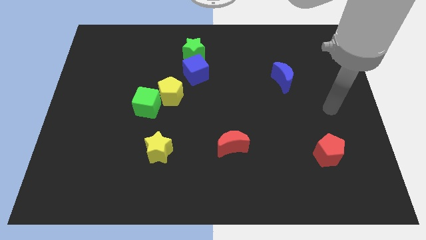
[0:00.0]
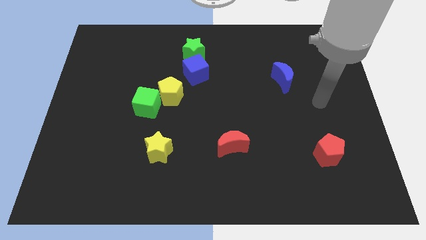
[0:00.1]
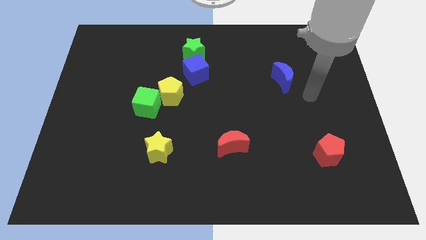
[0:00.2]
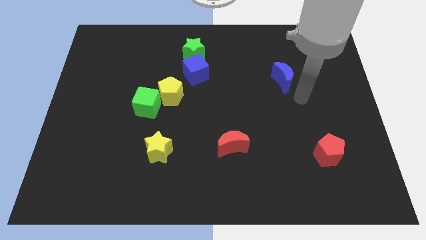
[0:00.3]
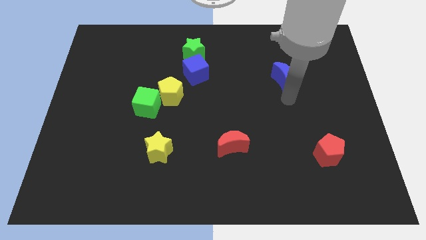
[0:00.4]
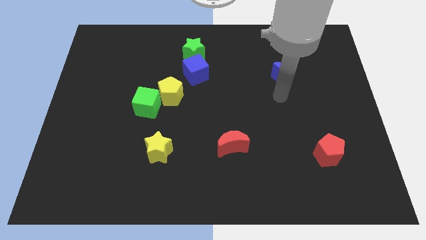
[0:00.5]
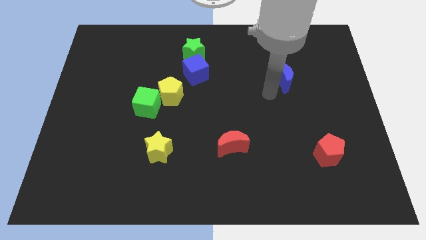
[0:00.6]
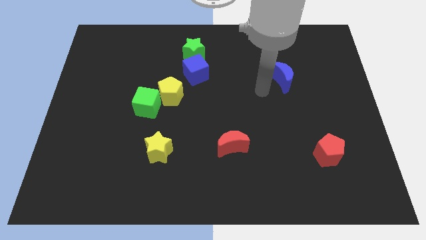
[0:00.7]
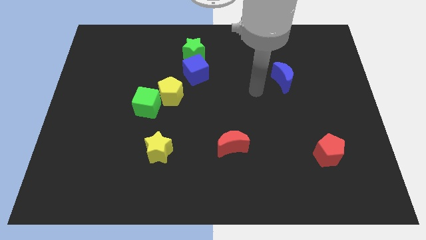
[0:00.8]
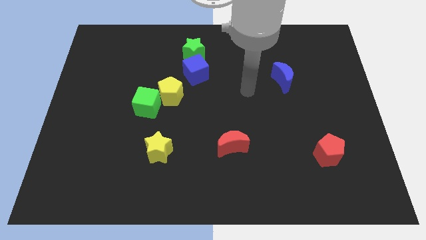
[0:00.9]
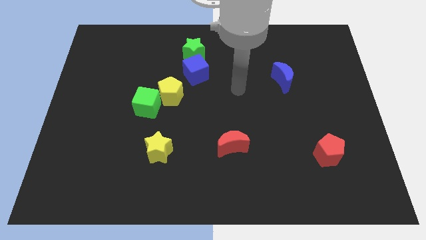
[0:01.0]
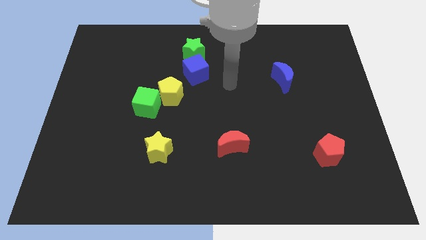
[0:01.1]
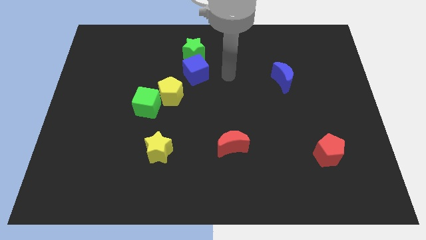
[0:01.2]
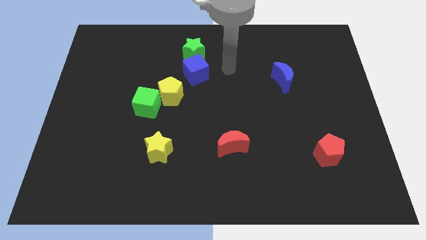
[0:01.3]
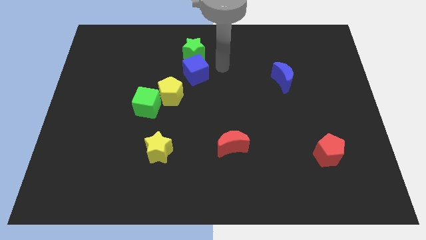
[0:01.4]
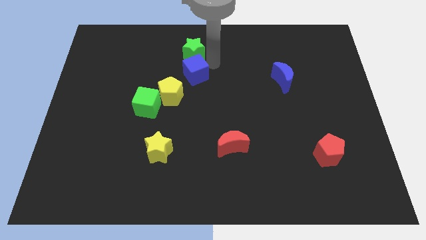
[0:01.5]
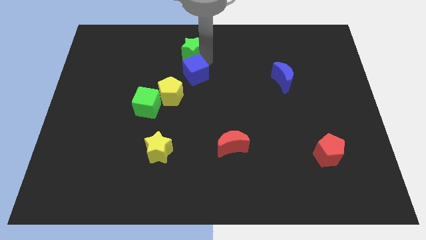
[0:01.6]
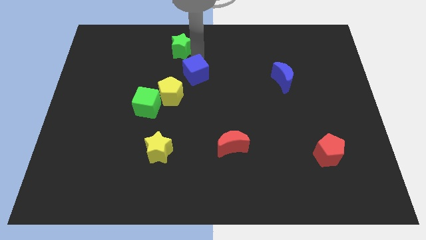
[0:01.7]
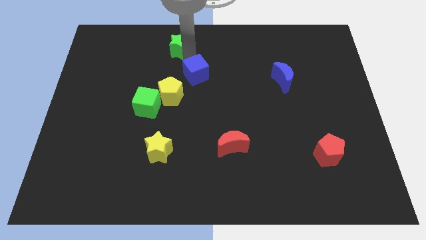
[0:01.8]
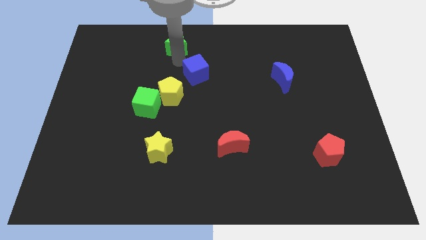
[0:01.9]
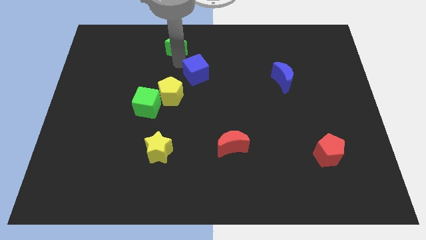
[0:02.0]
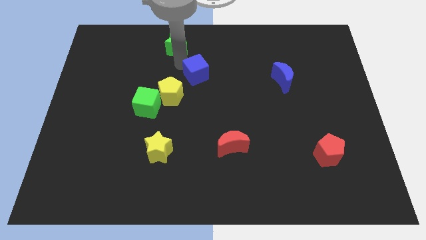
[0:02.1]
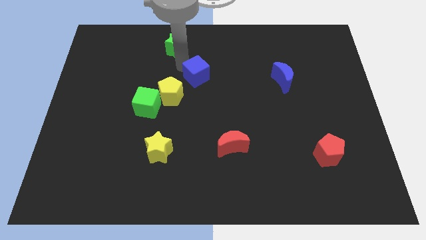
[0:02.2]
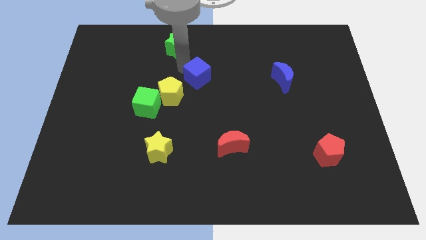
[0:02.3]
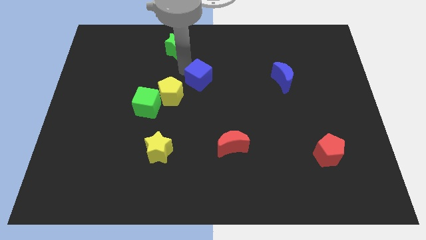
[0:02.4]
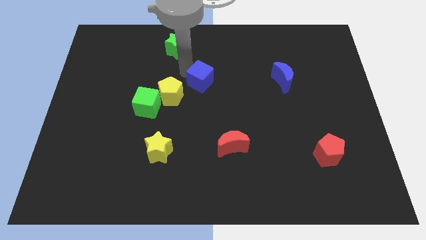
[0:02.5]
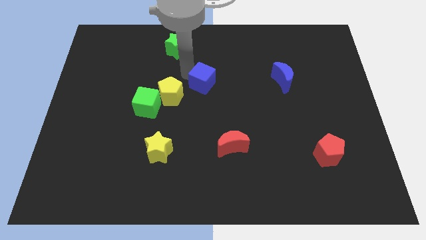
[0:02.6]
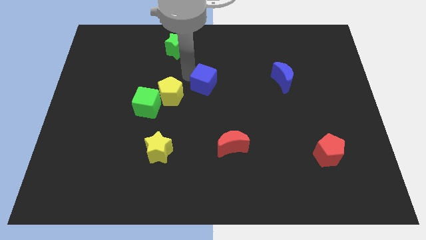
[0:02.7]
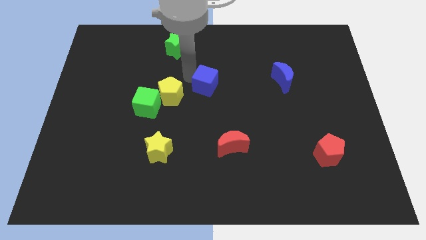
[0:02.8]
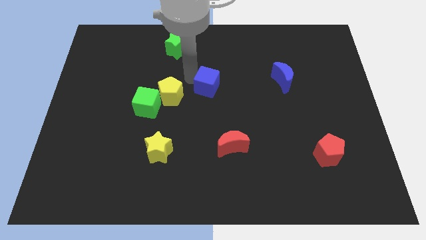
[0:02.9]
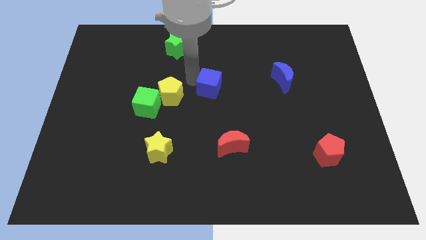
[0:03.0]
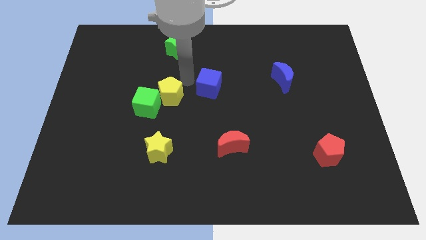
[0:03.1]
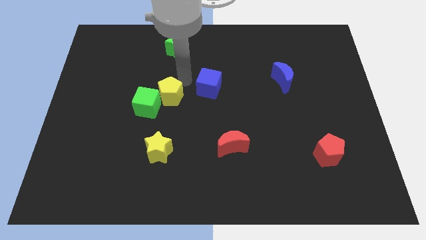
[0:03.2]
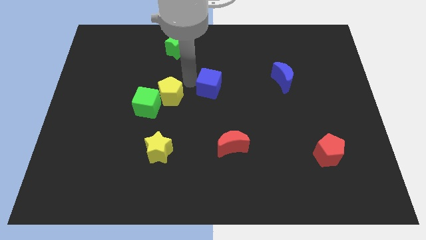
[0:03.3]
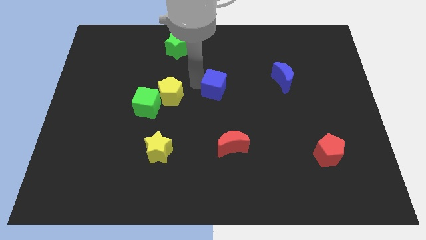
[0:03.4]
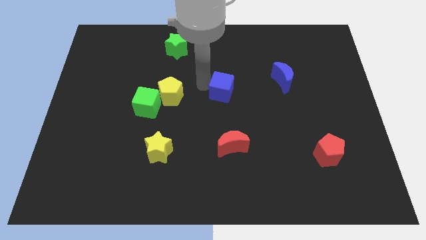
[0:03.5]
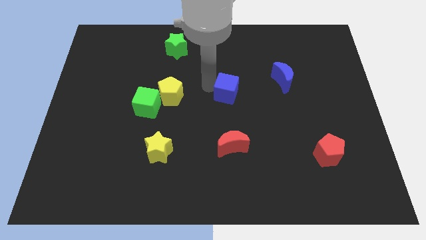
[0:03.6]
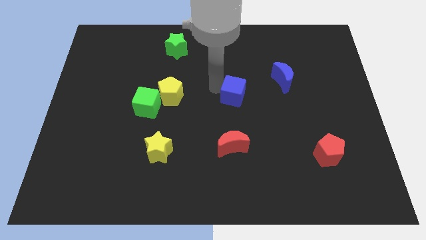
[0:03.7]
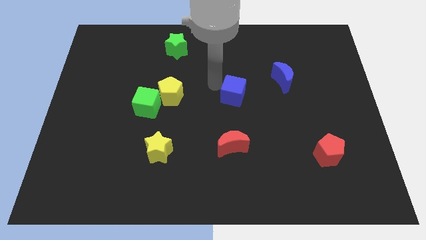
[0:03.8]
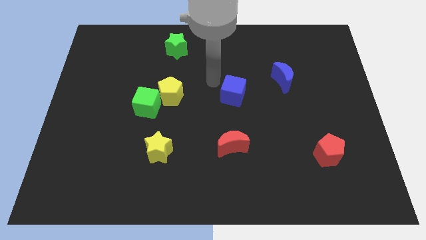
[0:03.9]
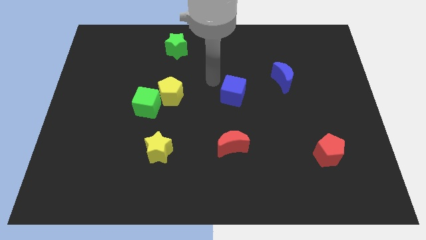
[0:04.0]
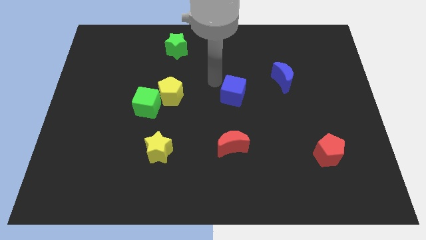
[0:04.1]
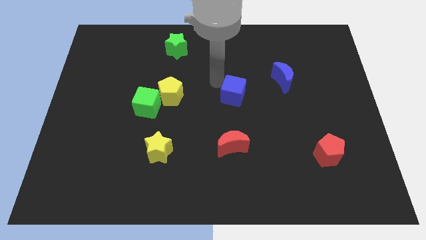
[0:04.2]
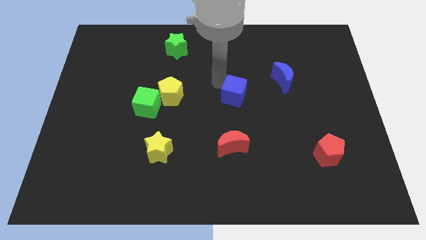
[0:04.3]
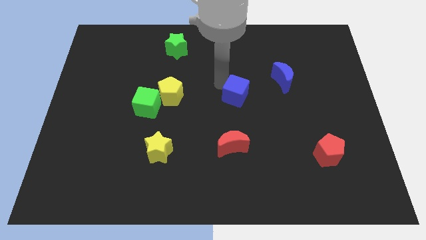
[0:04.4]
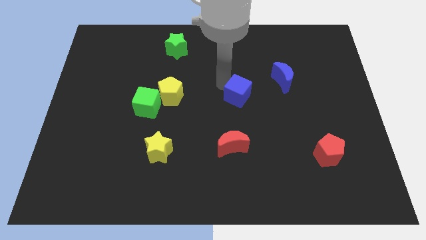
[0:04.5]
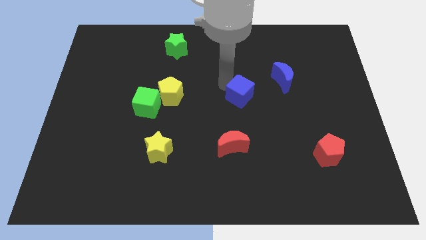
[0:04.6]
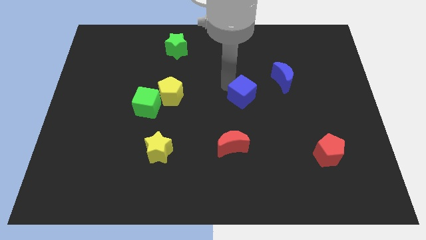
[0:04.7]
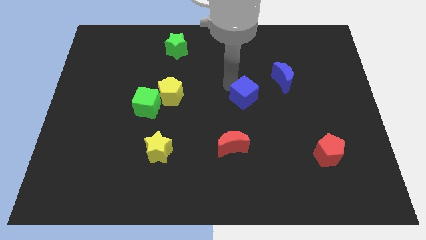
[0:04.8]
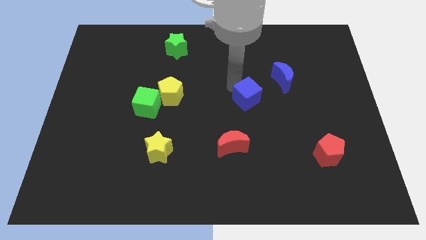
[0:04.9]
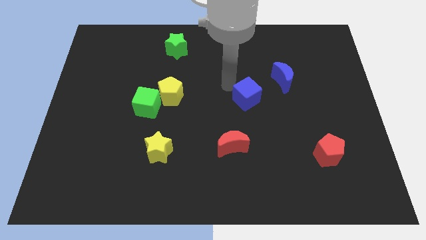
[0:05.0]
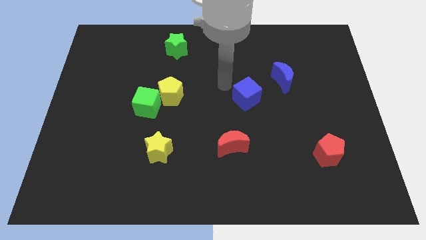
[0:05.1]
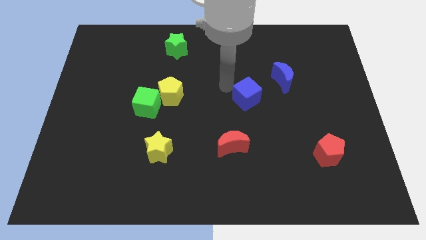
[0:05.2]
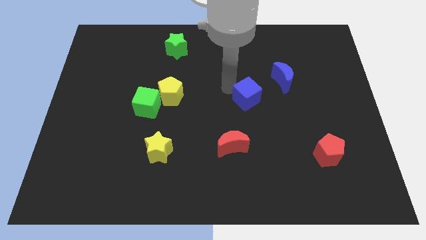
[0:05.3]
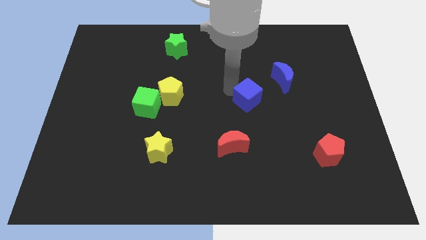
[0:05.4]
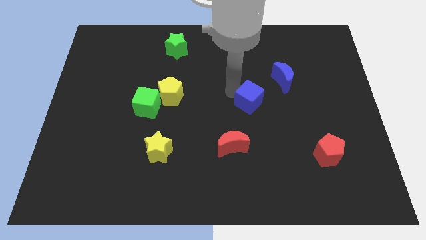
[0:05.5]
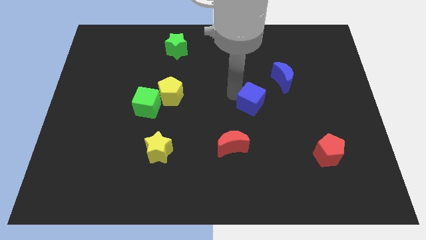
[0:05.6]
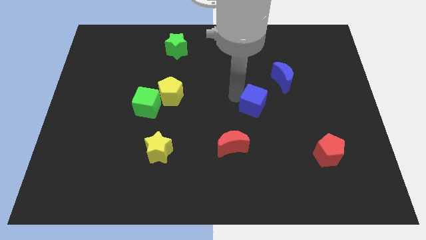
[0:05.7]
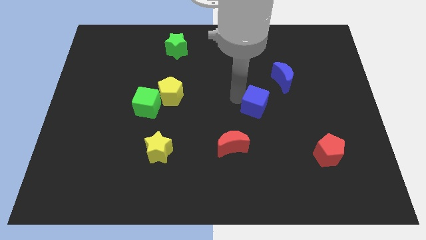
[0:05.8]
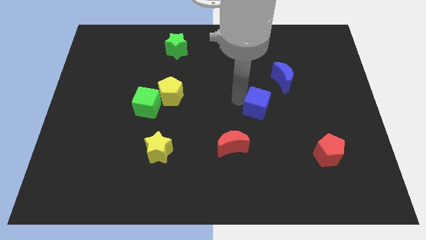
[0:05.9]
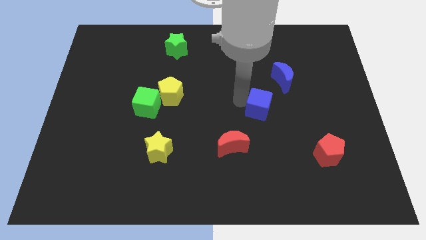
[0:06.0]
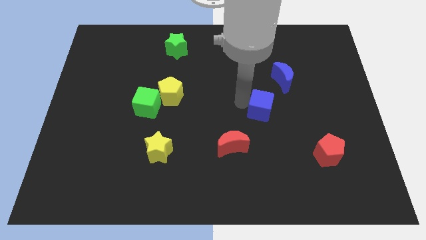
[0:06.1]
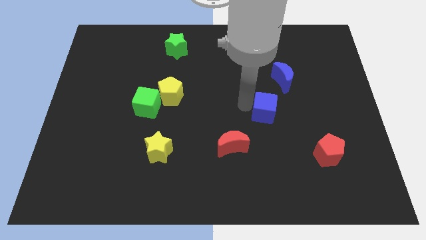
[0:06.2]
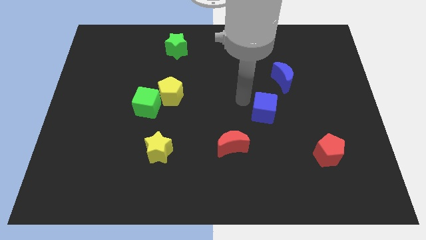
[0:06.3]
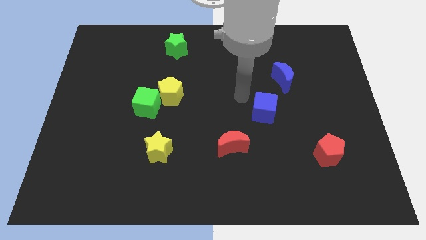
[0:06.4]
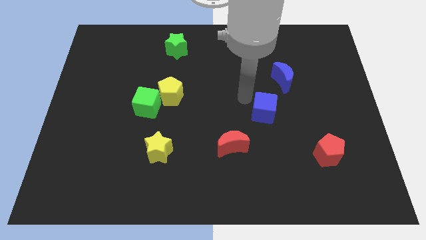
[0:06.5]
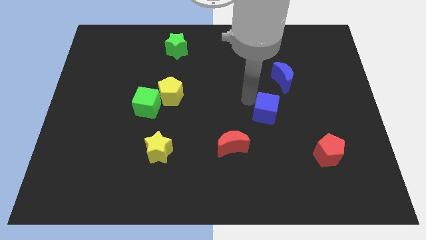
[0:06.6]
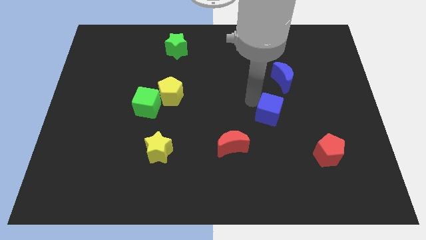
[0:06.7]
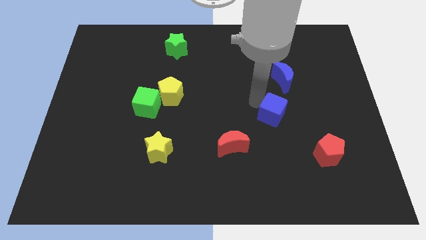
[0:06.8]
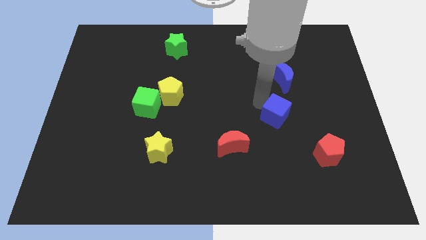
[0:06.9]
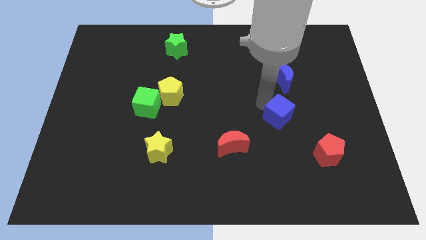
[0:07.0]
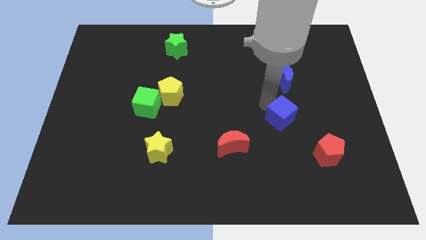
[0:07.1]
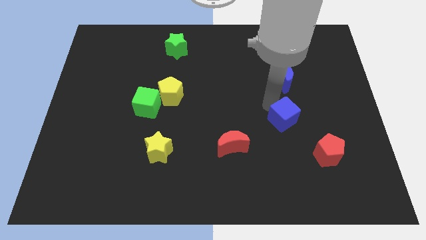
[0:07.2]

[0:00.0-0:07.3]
put the blue cube to the top left of the red pentagon

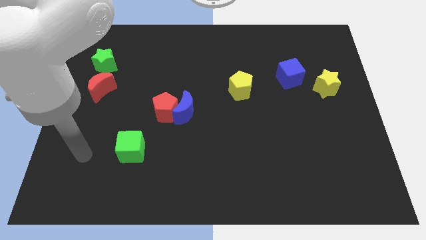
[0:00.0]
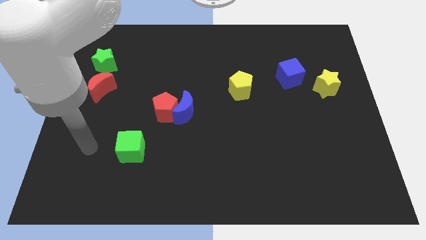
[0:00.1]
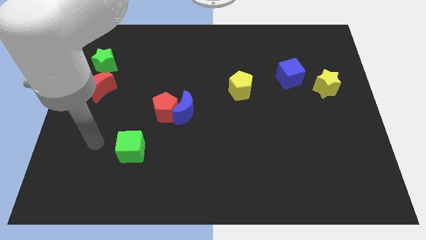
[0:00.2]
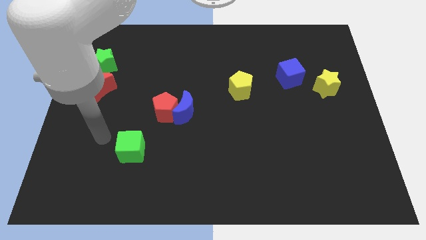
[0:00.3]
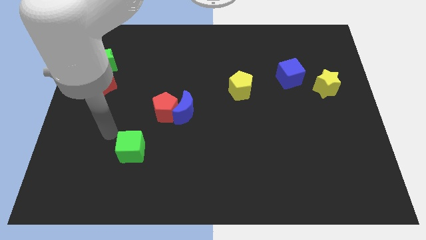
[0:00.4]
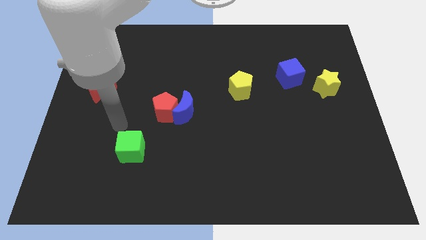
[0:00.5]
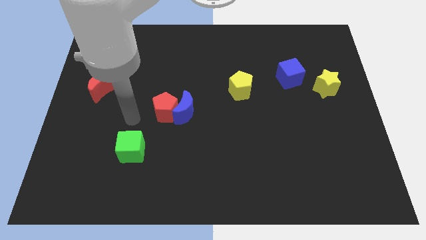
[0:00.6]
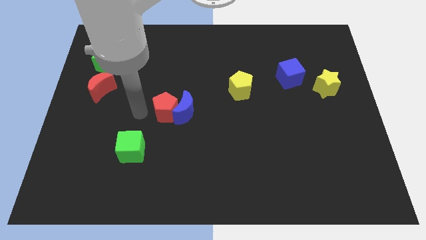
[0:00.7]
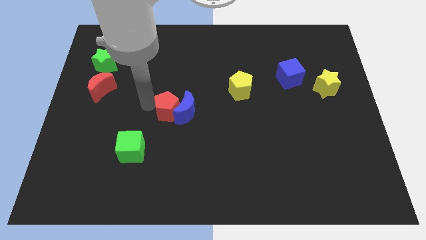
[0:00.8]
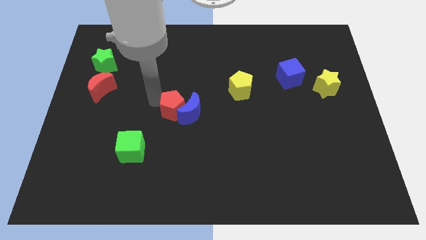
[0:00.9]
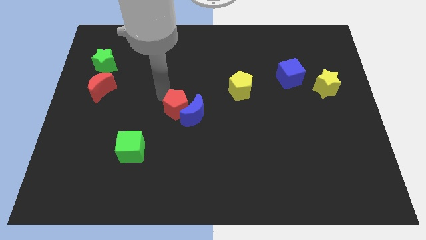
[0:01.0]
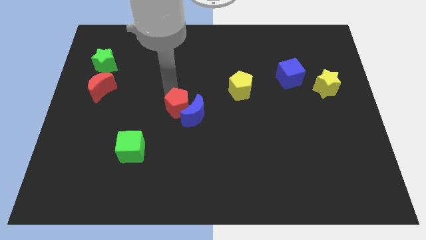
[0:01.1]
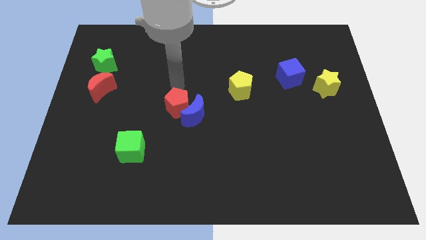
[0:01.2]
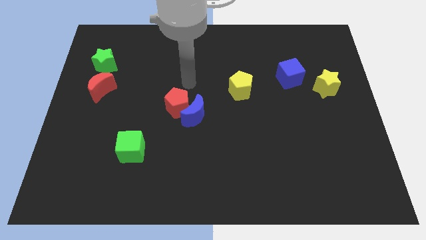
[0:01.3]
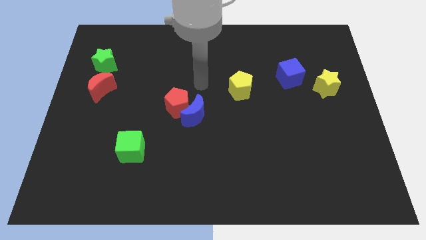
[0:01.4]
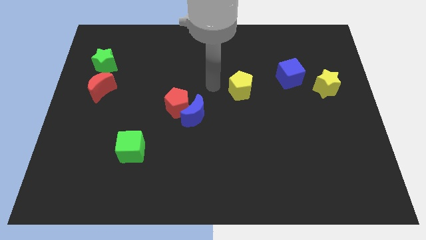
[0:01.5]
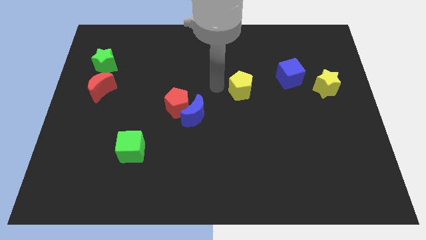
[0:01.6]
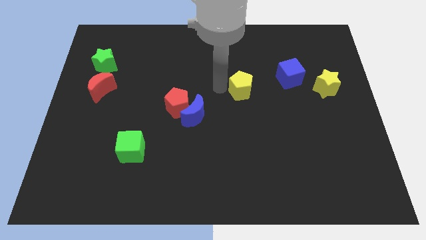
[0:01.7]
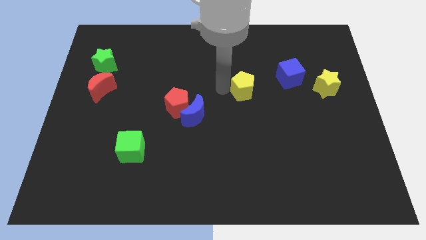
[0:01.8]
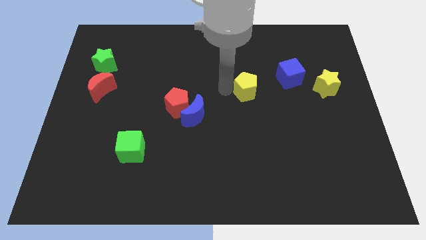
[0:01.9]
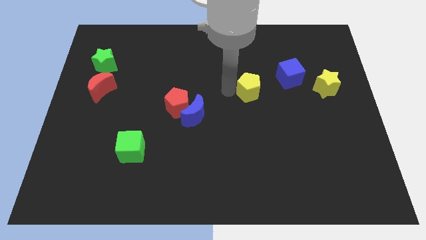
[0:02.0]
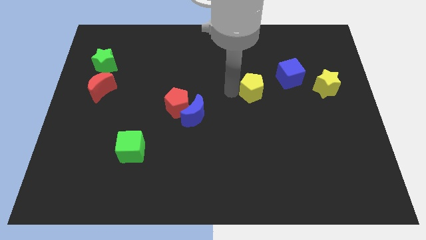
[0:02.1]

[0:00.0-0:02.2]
slide the yellow pentagon to the bottom left of the blue cube
